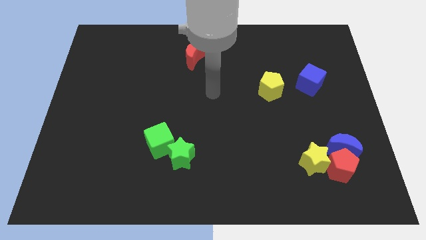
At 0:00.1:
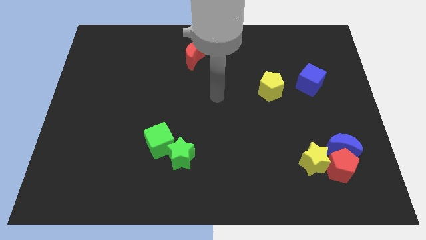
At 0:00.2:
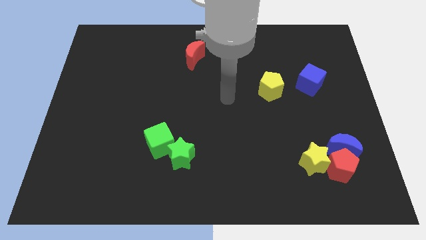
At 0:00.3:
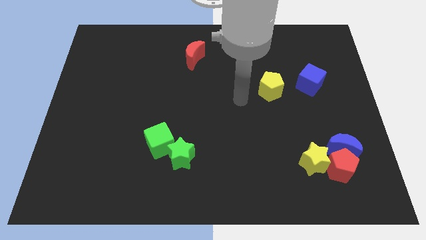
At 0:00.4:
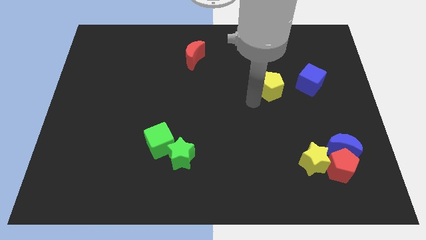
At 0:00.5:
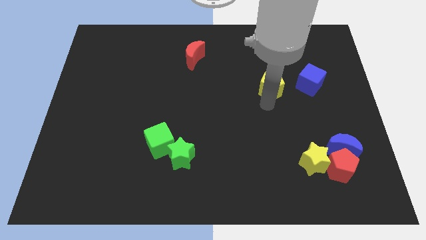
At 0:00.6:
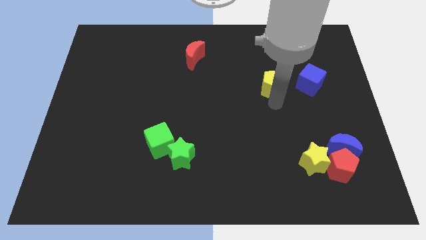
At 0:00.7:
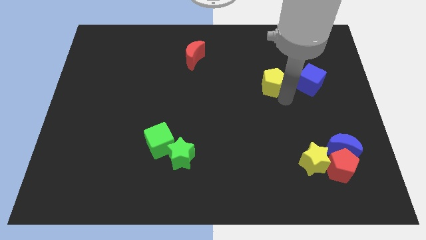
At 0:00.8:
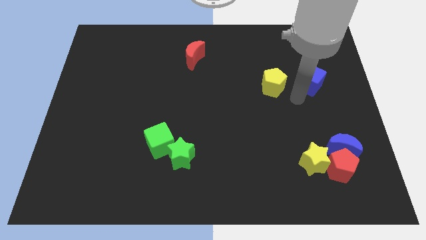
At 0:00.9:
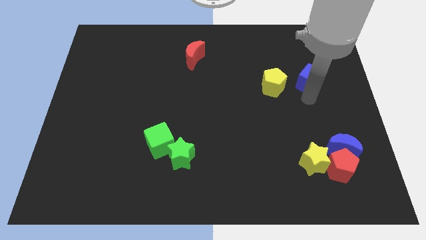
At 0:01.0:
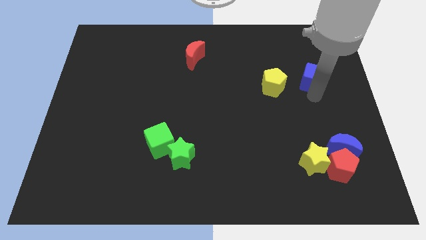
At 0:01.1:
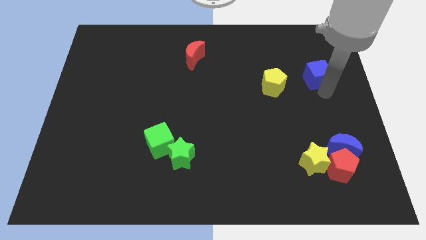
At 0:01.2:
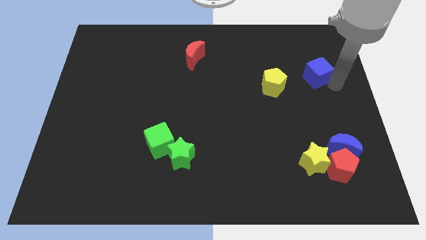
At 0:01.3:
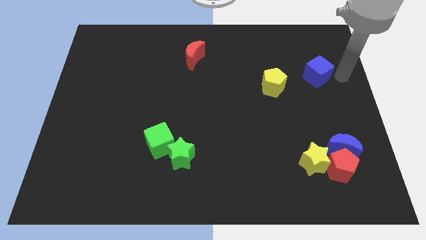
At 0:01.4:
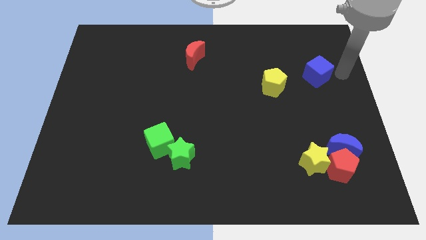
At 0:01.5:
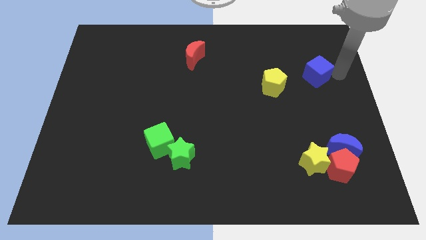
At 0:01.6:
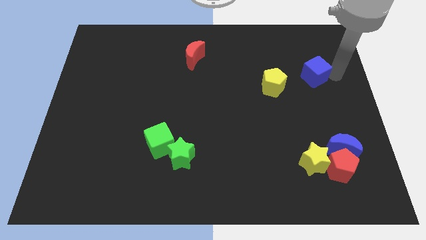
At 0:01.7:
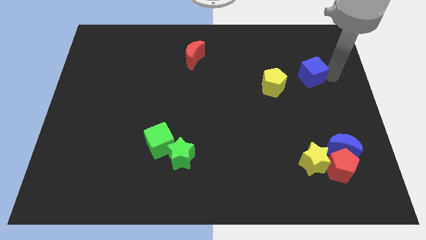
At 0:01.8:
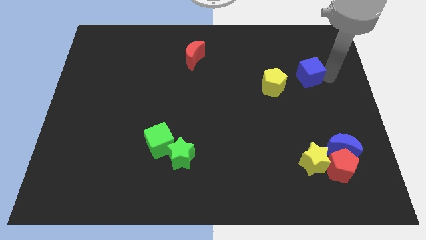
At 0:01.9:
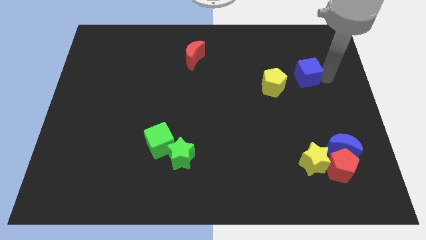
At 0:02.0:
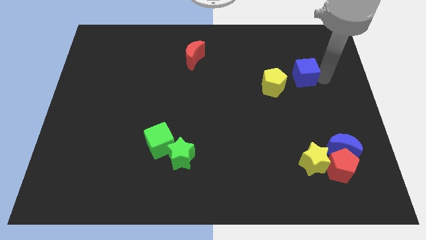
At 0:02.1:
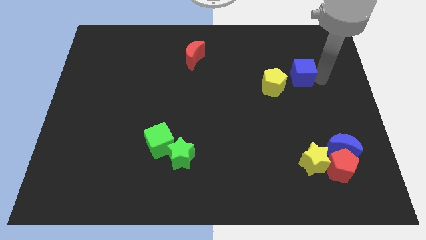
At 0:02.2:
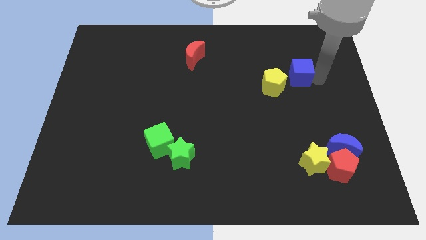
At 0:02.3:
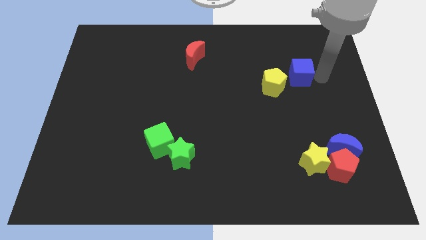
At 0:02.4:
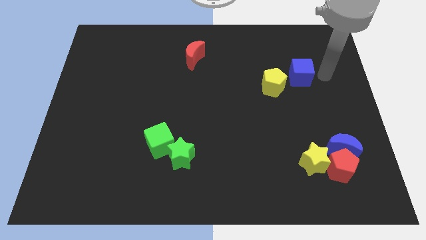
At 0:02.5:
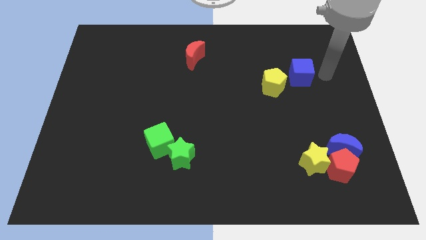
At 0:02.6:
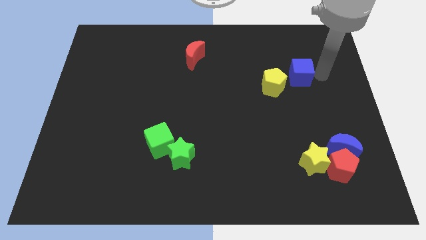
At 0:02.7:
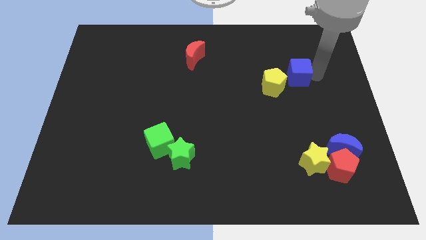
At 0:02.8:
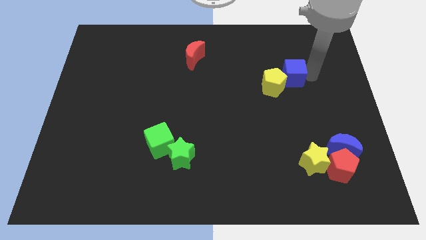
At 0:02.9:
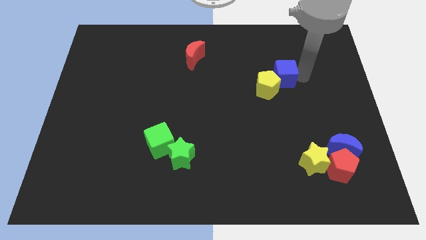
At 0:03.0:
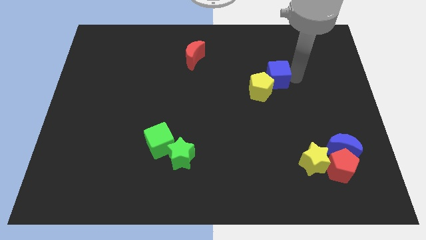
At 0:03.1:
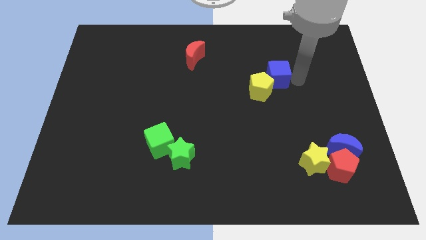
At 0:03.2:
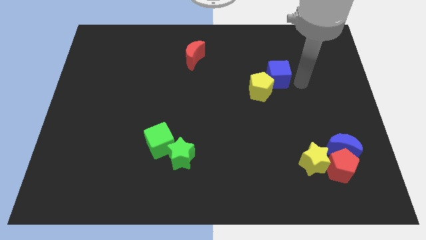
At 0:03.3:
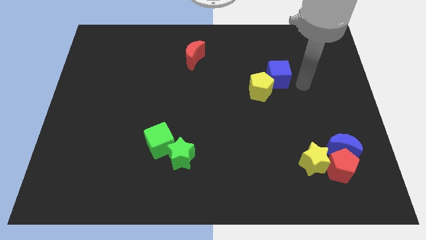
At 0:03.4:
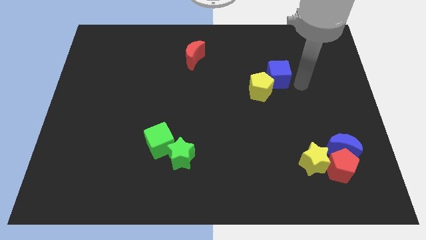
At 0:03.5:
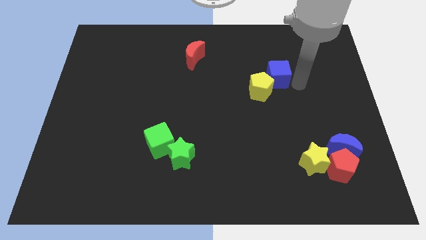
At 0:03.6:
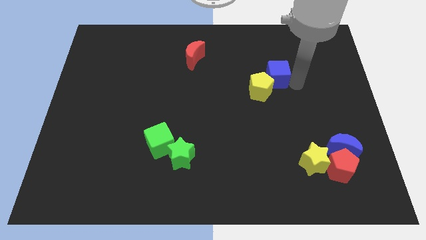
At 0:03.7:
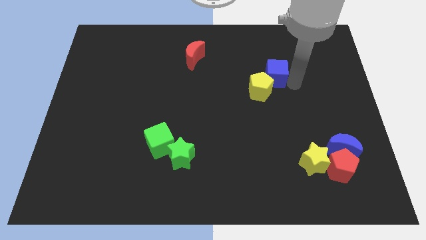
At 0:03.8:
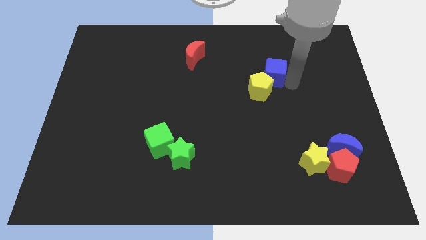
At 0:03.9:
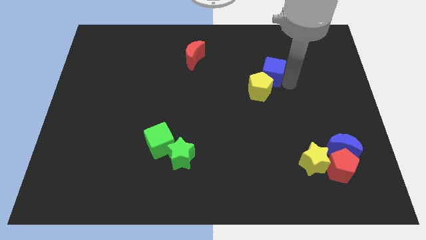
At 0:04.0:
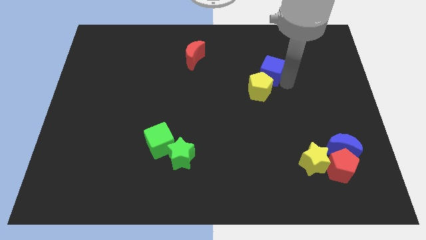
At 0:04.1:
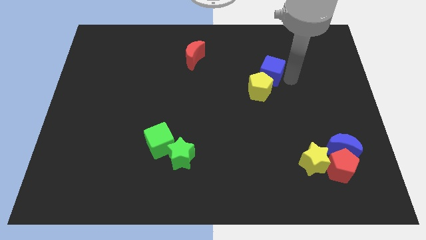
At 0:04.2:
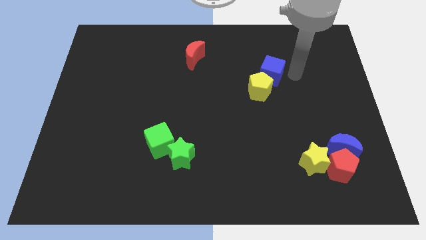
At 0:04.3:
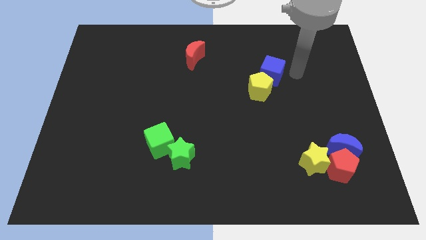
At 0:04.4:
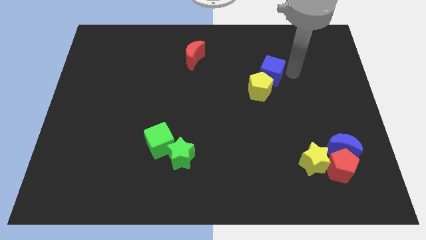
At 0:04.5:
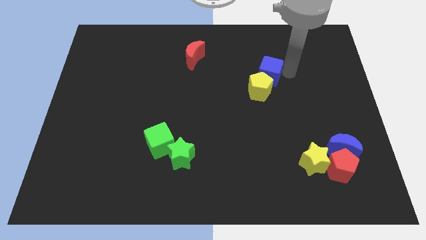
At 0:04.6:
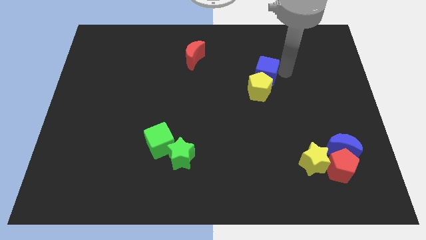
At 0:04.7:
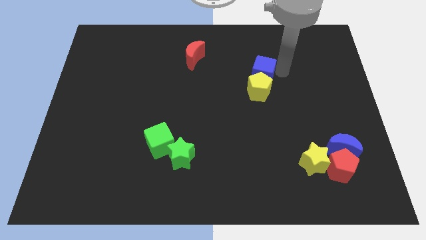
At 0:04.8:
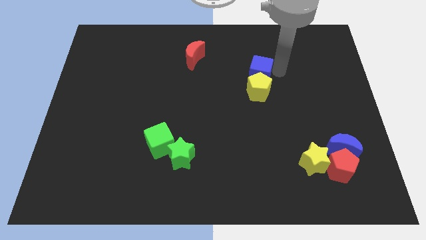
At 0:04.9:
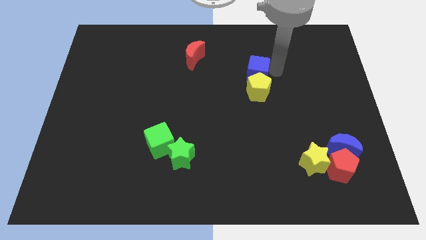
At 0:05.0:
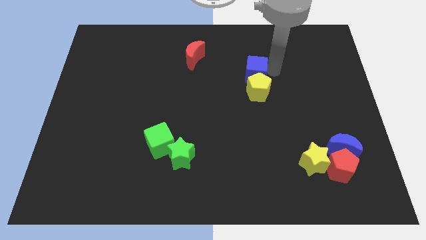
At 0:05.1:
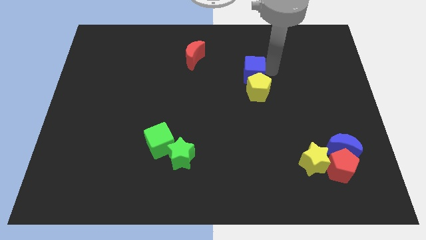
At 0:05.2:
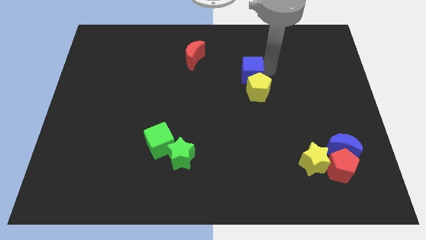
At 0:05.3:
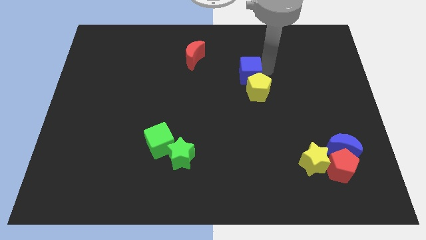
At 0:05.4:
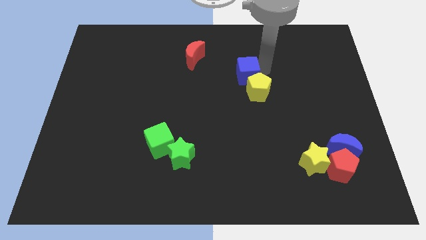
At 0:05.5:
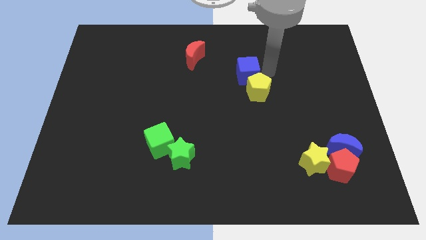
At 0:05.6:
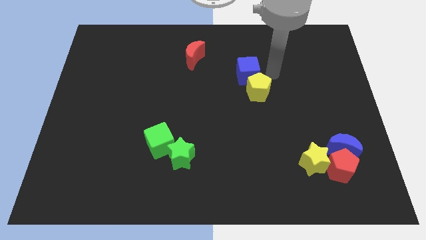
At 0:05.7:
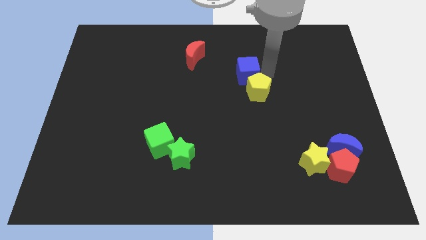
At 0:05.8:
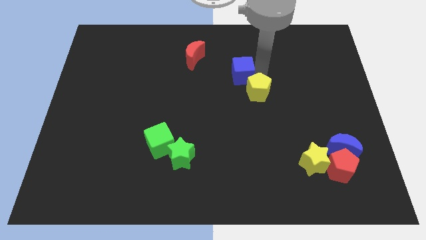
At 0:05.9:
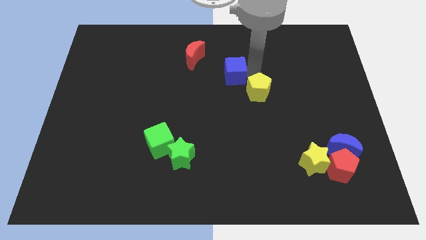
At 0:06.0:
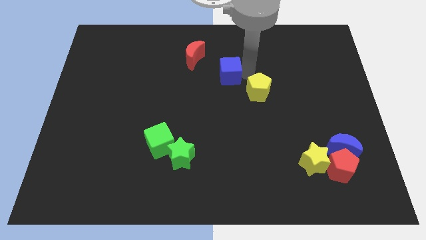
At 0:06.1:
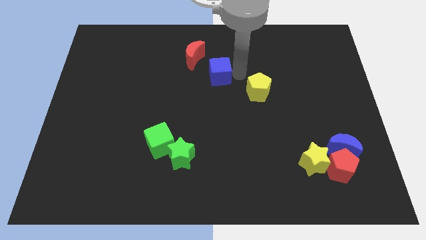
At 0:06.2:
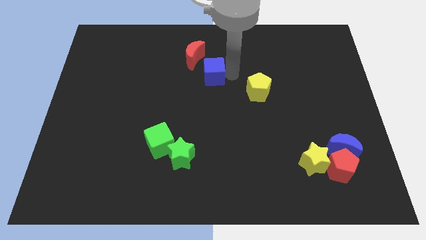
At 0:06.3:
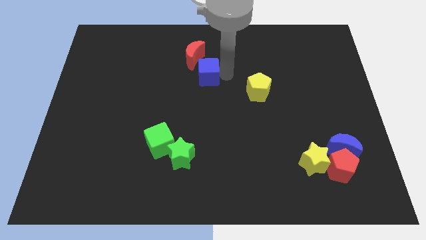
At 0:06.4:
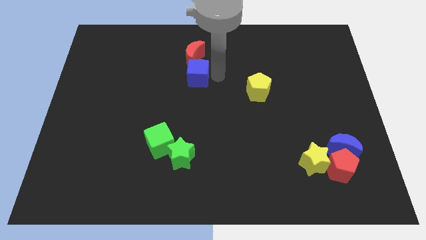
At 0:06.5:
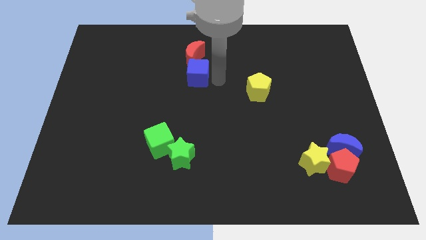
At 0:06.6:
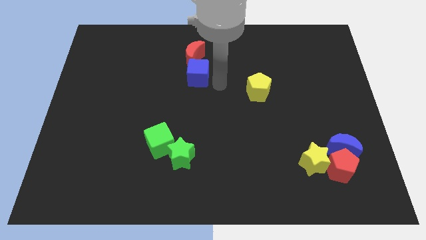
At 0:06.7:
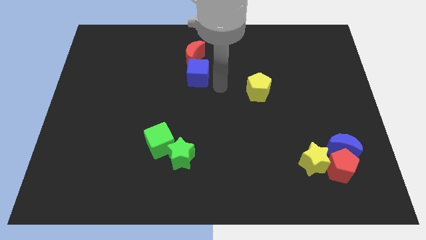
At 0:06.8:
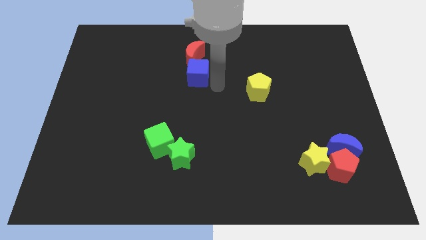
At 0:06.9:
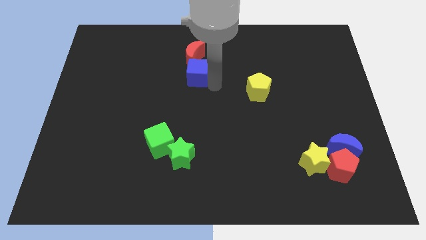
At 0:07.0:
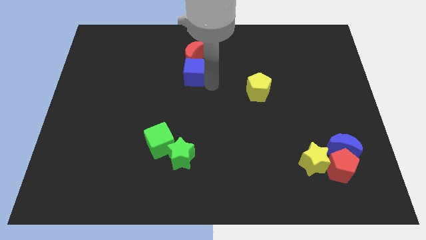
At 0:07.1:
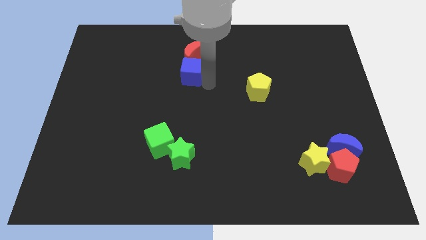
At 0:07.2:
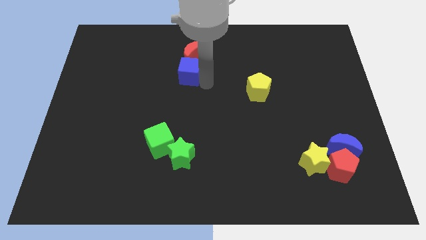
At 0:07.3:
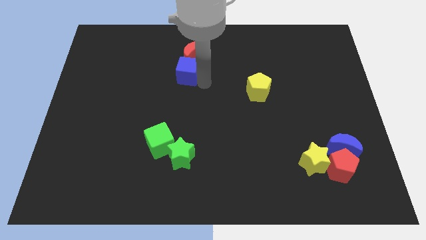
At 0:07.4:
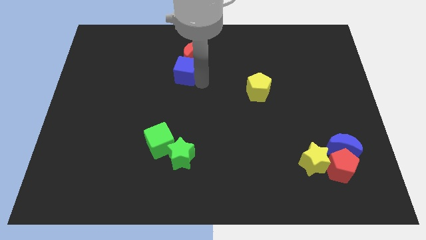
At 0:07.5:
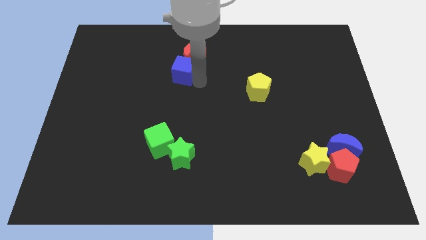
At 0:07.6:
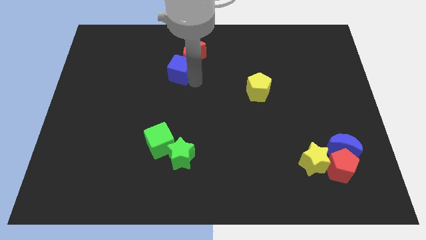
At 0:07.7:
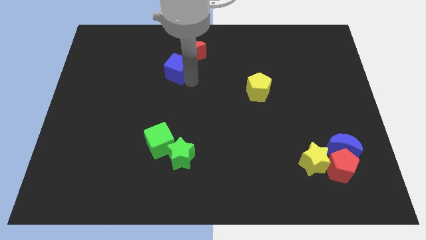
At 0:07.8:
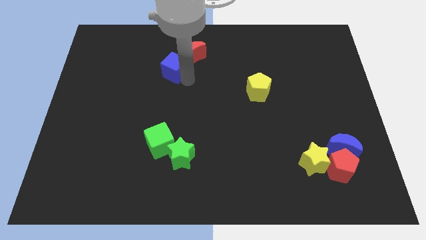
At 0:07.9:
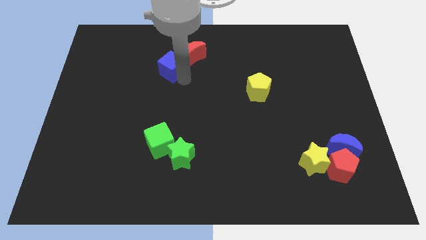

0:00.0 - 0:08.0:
move the blue cube left of the red moon
